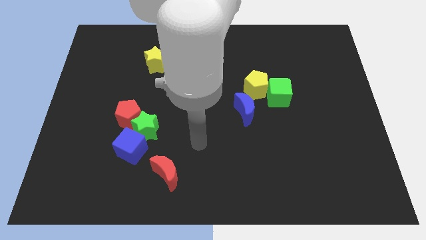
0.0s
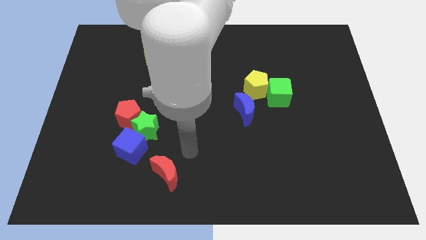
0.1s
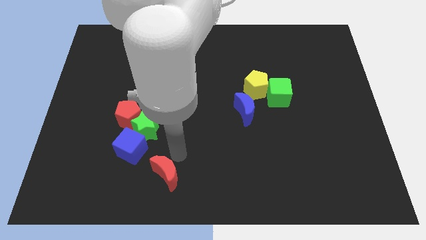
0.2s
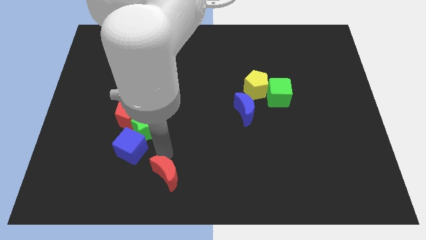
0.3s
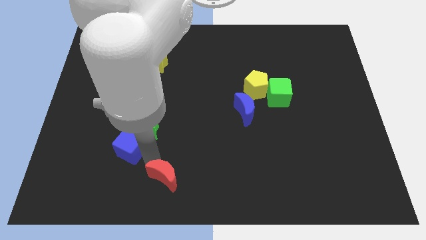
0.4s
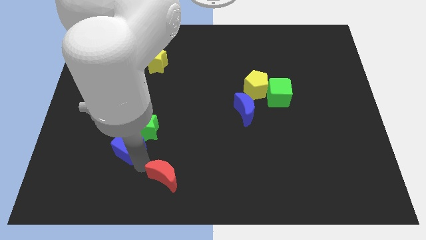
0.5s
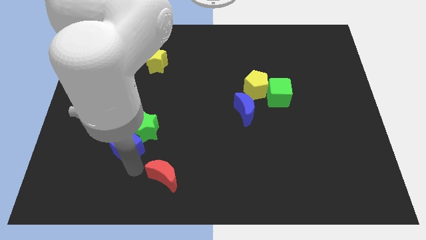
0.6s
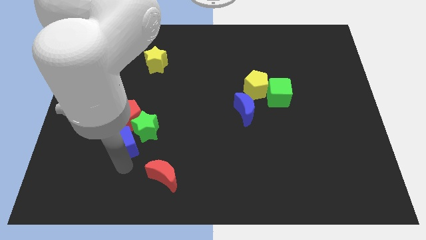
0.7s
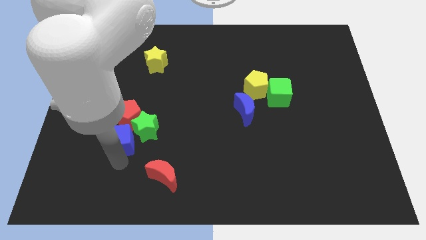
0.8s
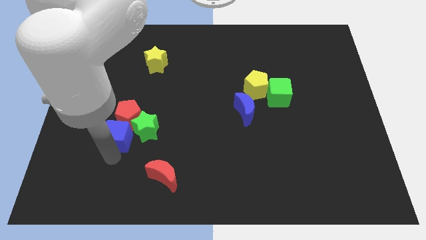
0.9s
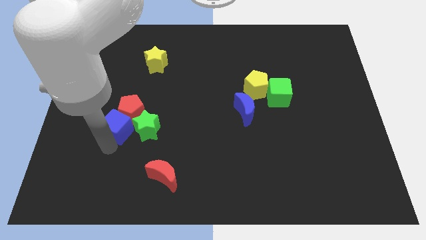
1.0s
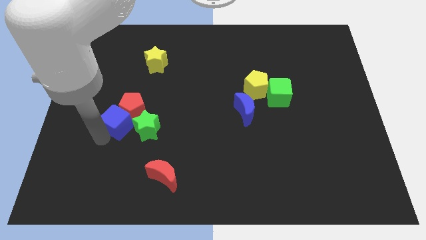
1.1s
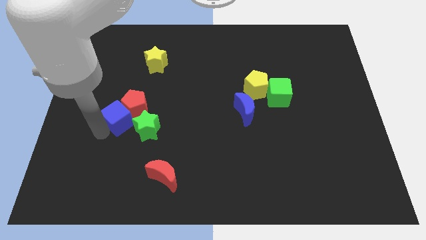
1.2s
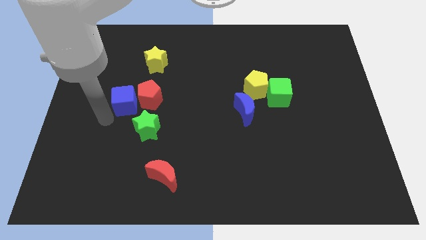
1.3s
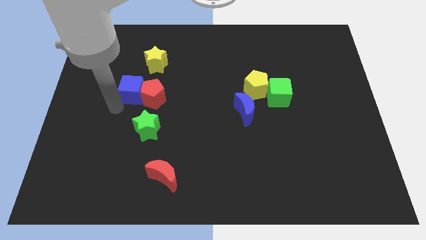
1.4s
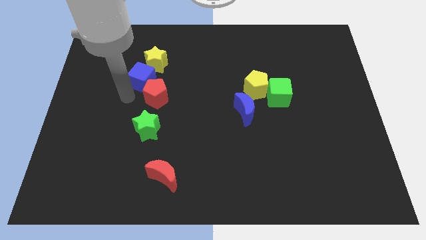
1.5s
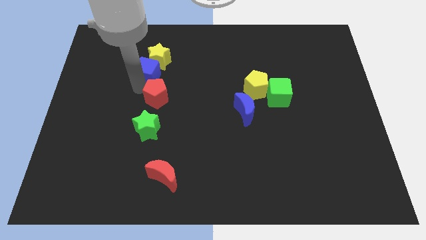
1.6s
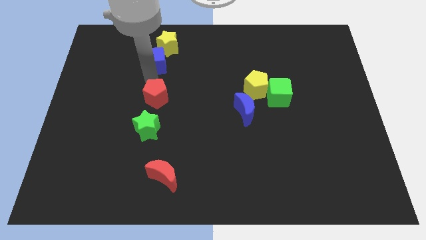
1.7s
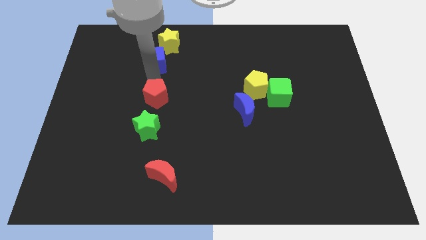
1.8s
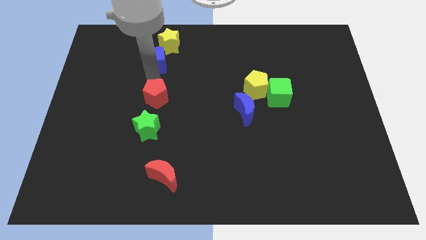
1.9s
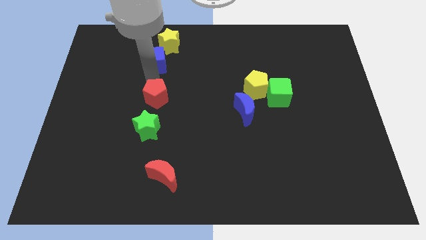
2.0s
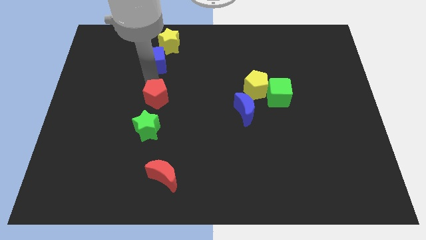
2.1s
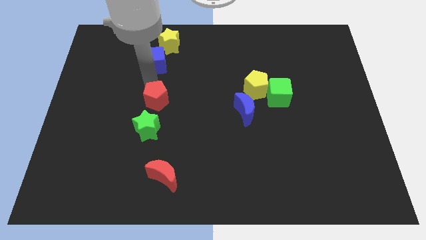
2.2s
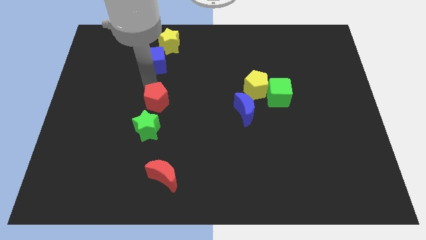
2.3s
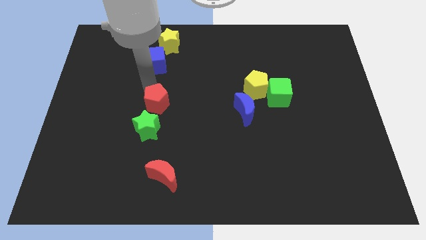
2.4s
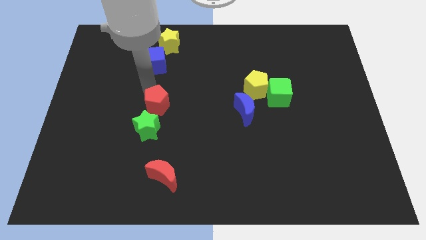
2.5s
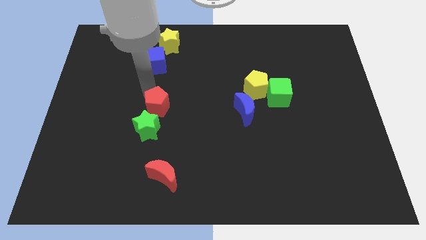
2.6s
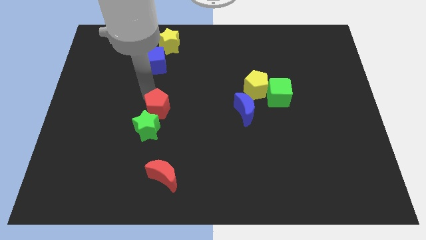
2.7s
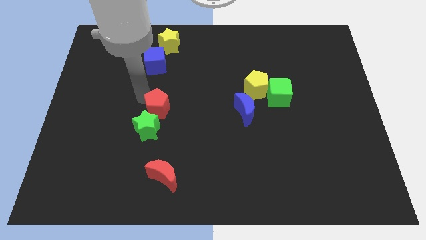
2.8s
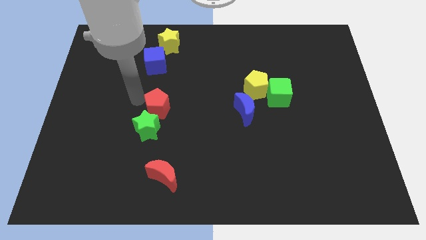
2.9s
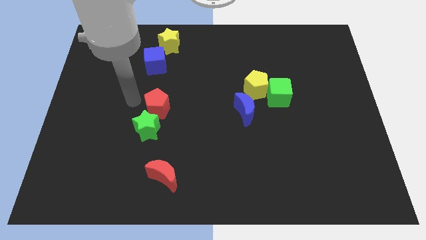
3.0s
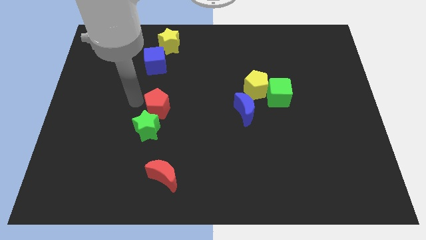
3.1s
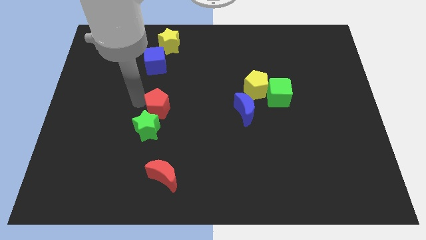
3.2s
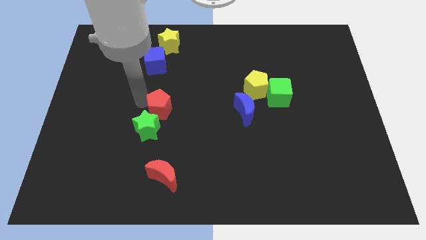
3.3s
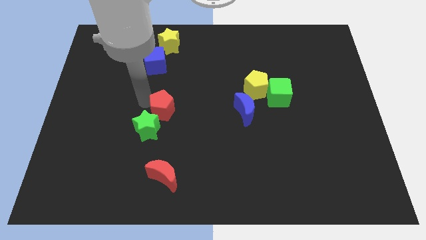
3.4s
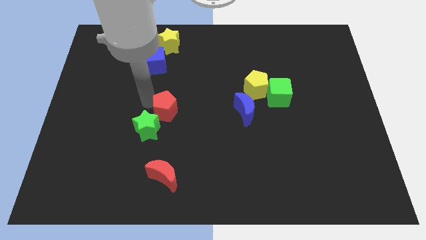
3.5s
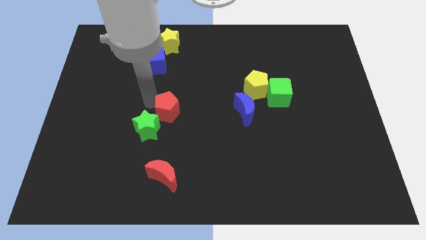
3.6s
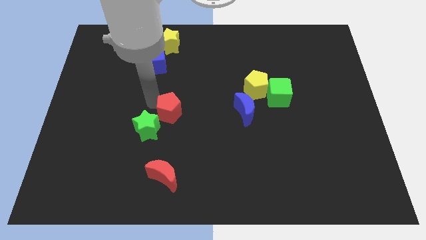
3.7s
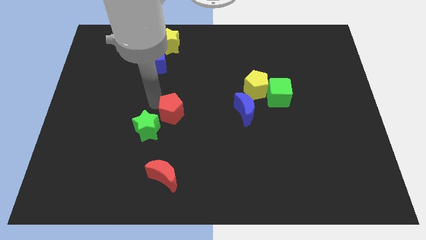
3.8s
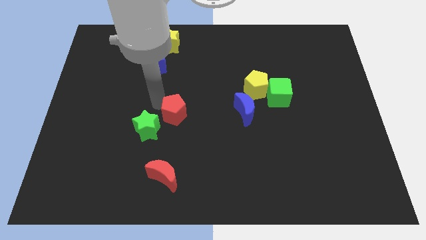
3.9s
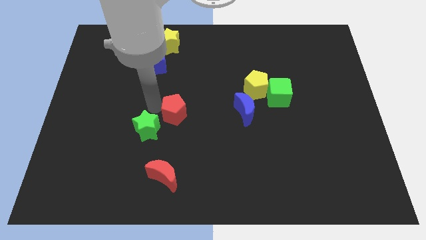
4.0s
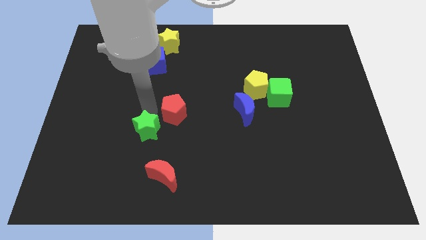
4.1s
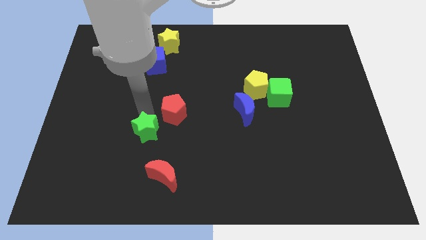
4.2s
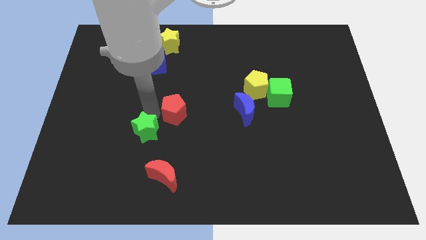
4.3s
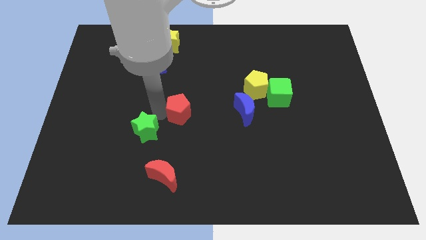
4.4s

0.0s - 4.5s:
push the red pentagon to the left side of the blue moon

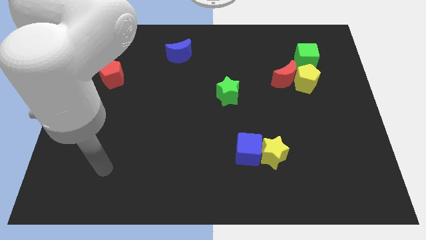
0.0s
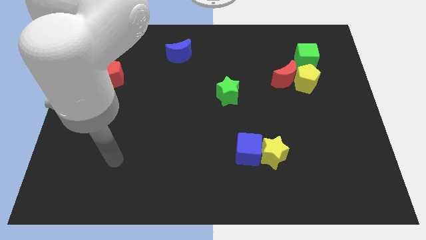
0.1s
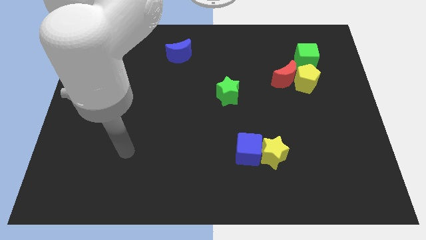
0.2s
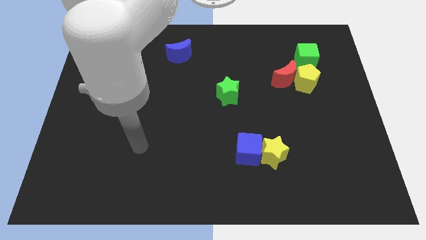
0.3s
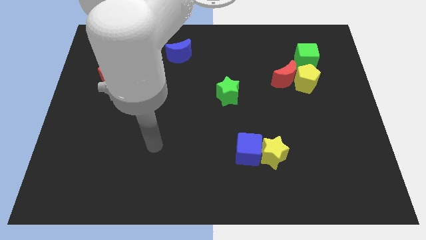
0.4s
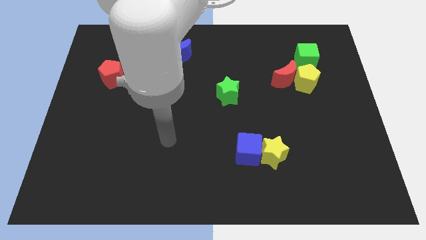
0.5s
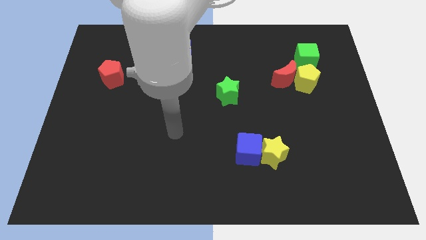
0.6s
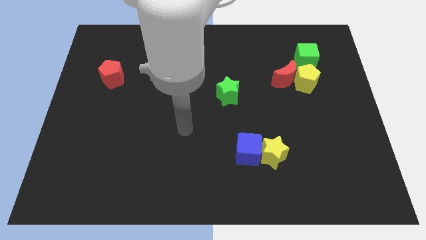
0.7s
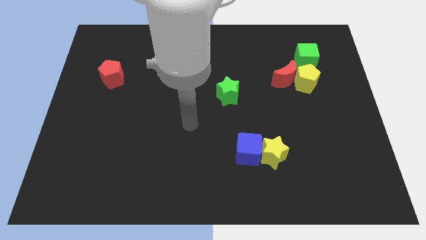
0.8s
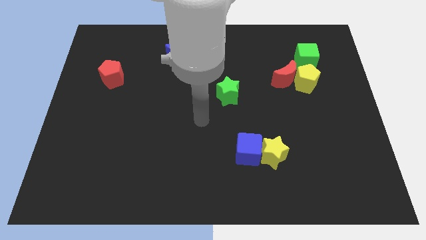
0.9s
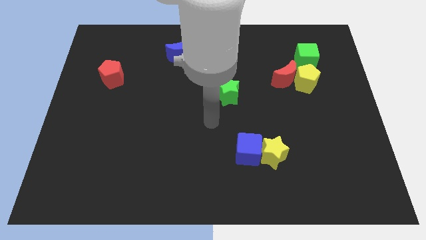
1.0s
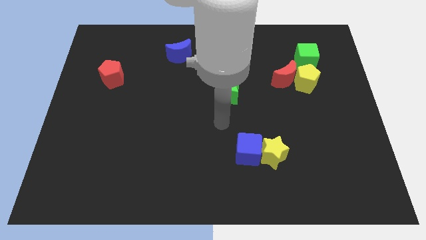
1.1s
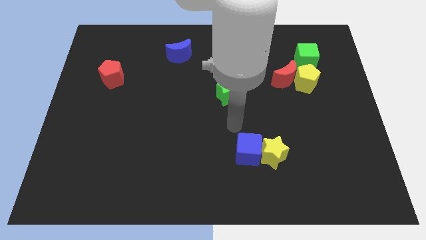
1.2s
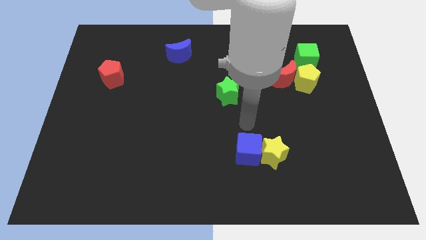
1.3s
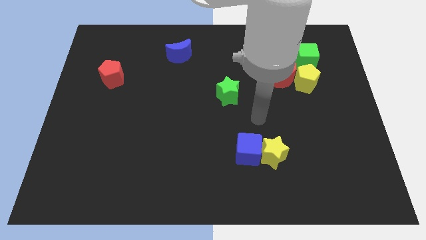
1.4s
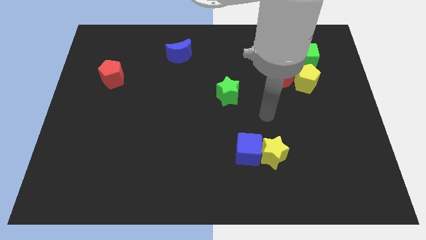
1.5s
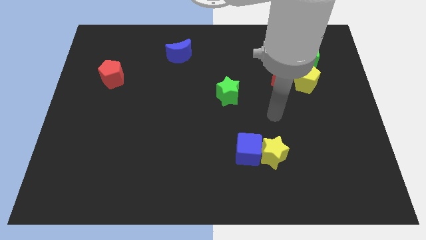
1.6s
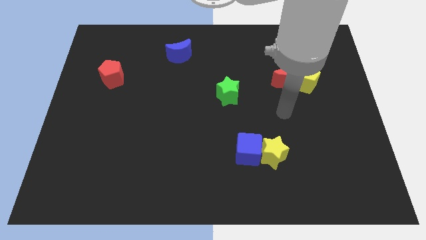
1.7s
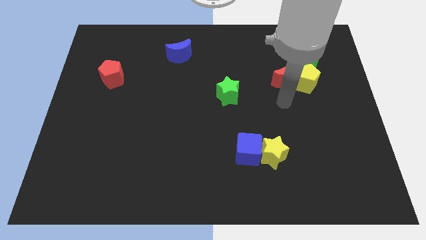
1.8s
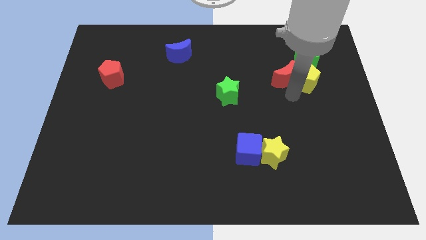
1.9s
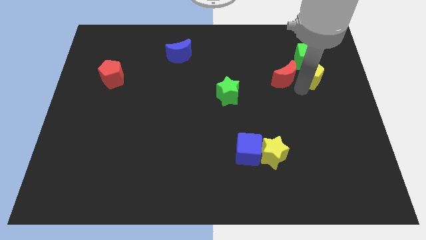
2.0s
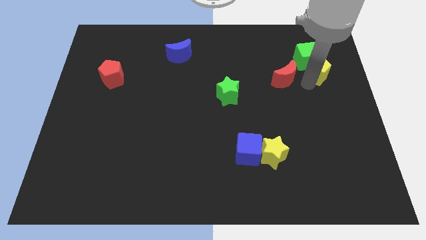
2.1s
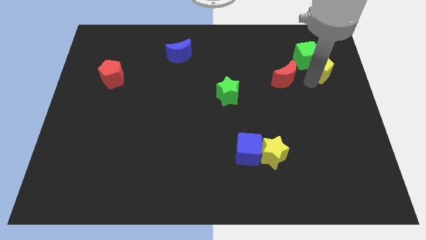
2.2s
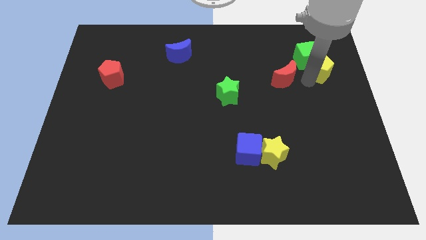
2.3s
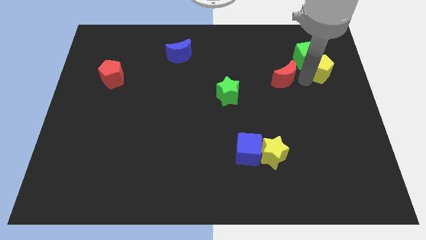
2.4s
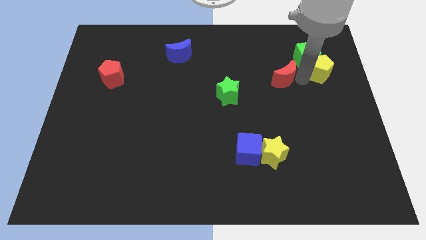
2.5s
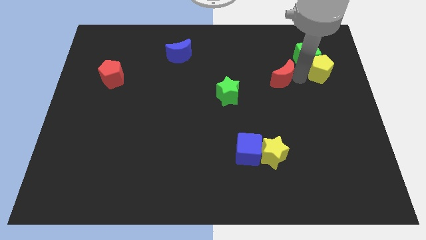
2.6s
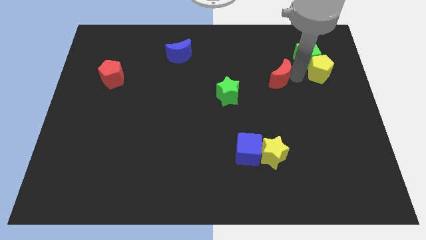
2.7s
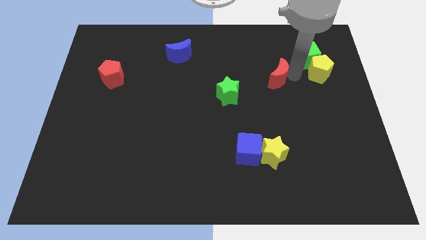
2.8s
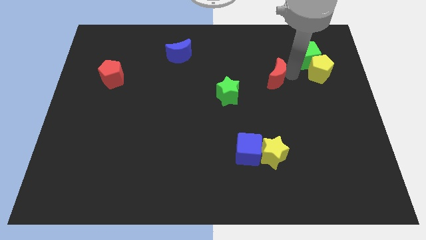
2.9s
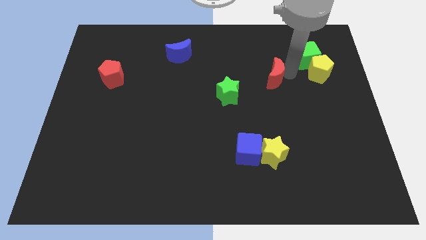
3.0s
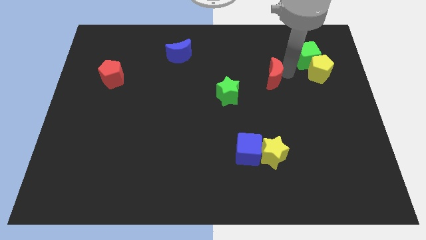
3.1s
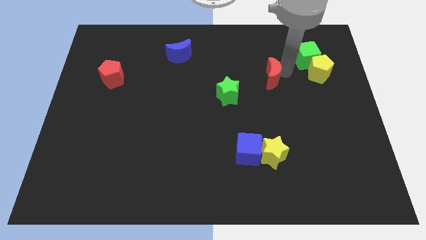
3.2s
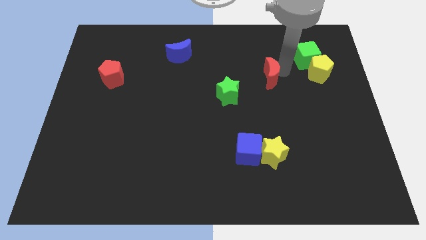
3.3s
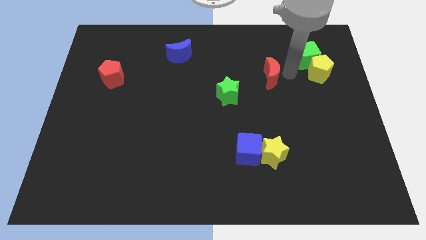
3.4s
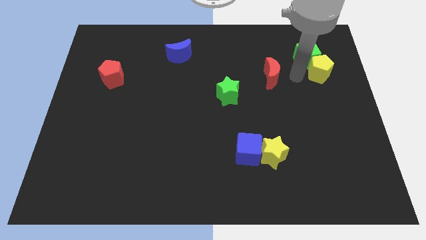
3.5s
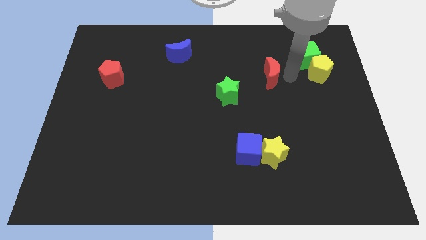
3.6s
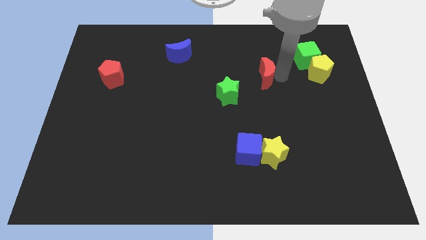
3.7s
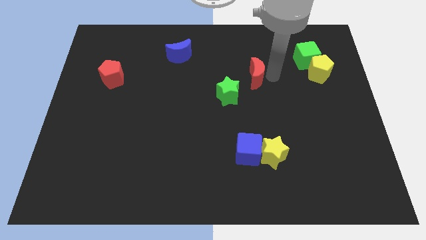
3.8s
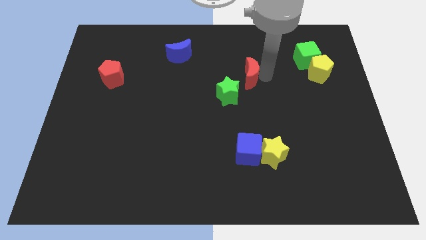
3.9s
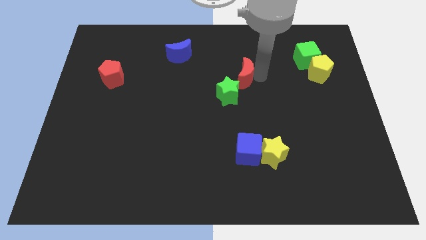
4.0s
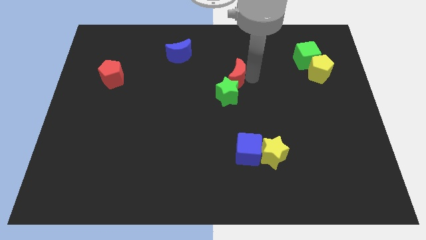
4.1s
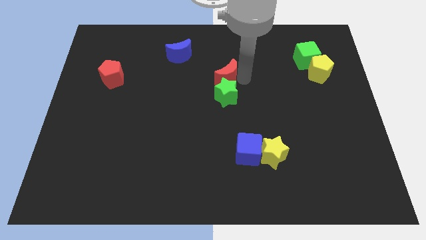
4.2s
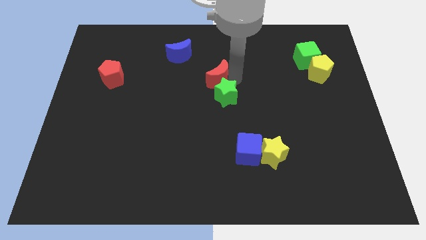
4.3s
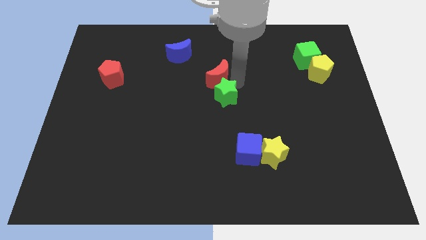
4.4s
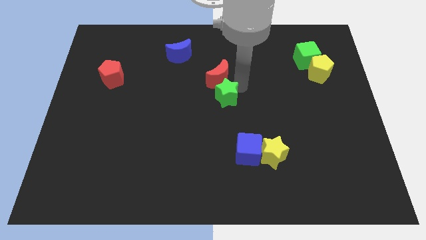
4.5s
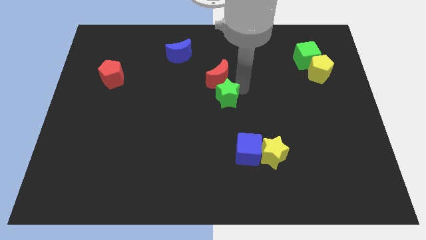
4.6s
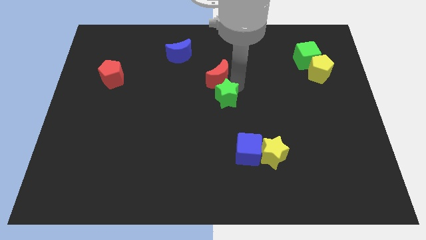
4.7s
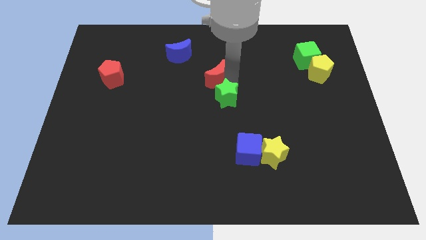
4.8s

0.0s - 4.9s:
push the red moon to the bottom right of the blue moon
